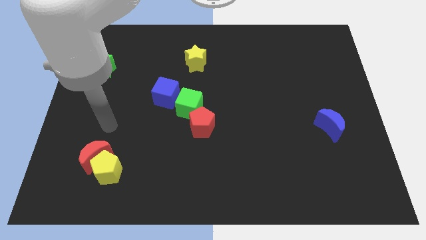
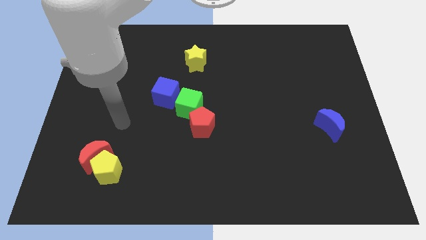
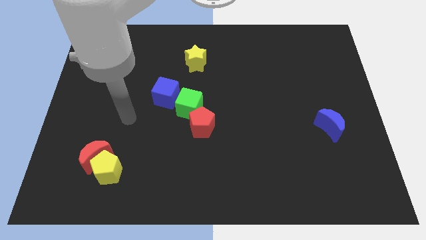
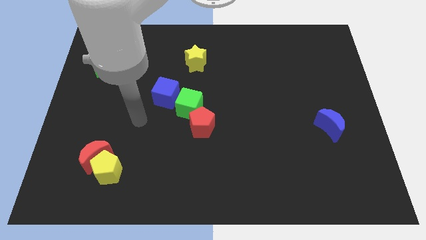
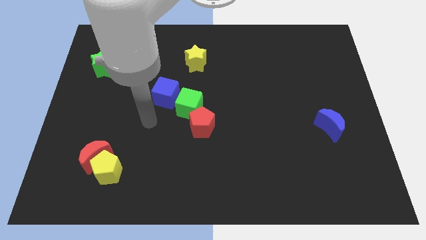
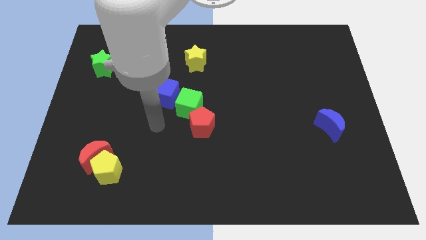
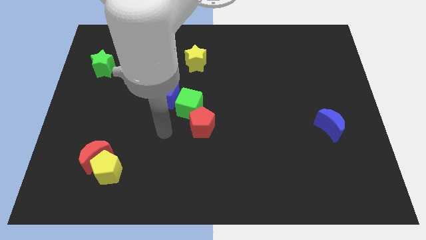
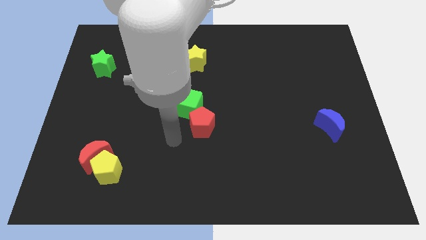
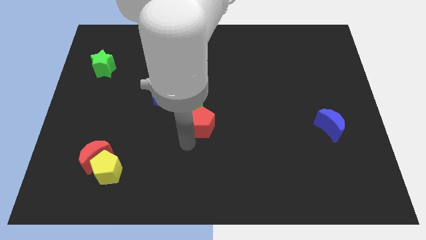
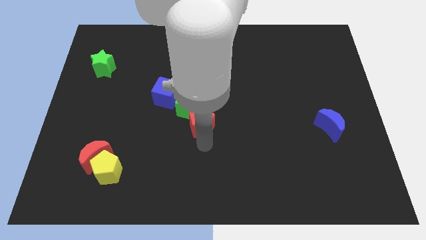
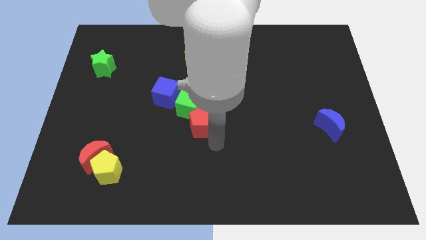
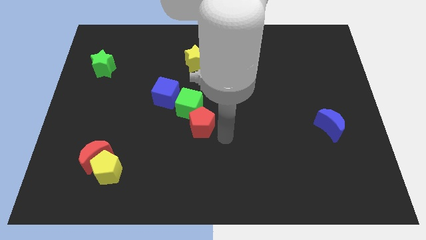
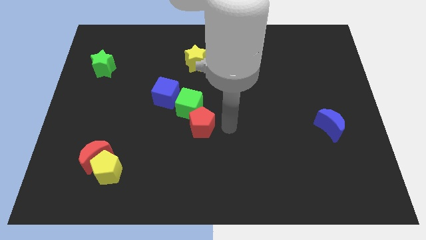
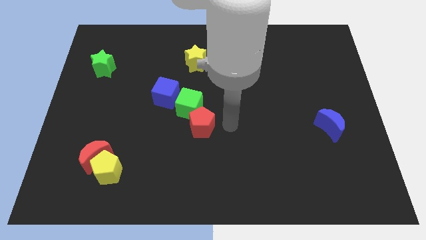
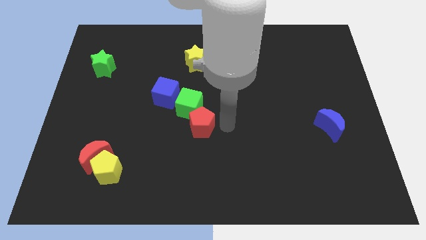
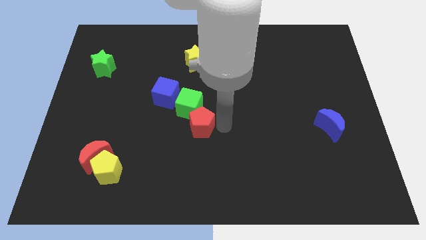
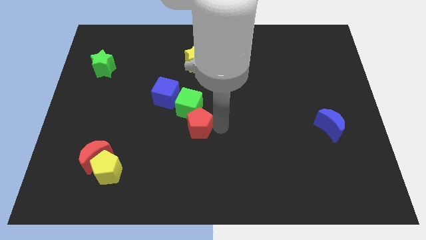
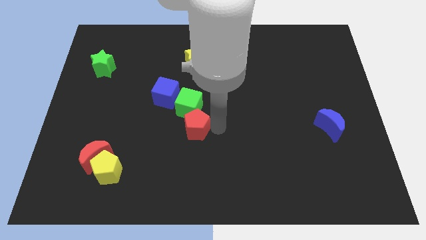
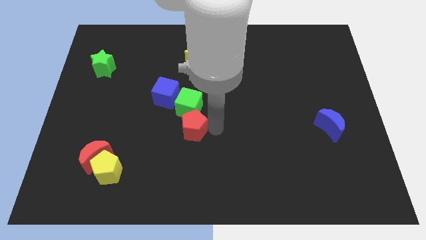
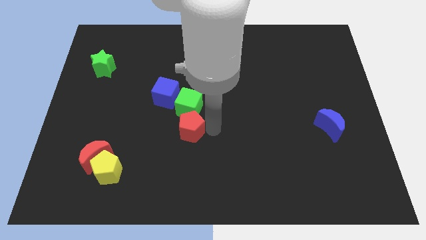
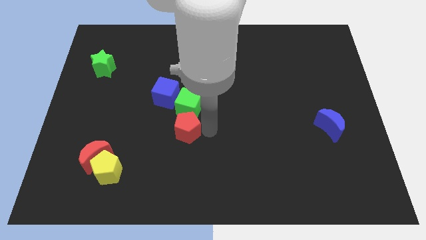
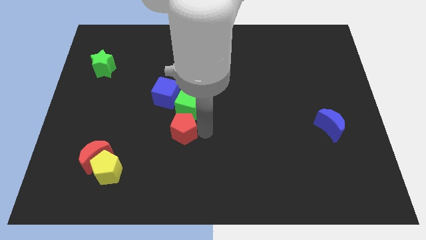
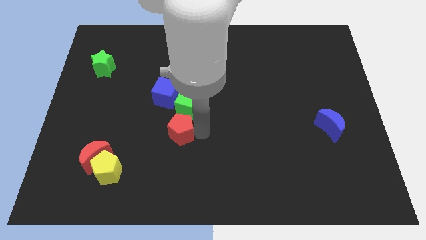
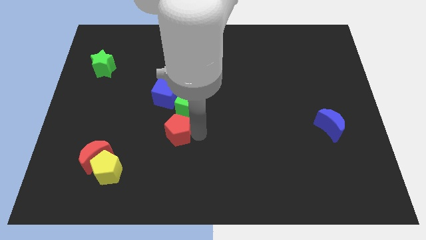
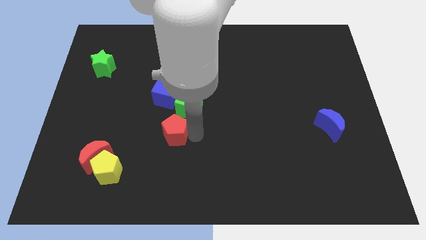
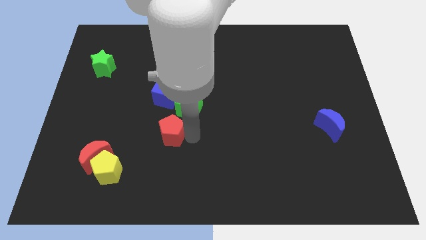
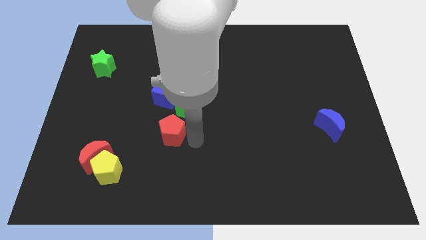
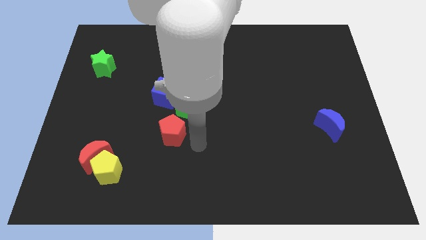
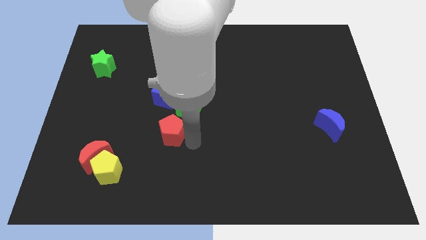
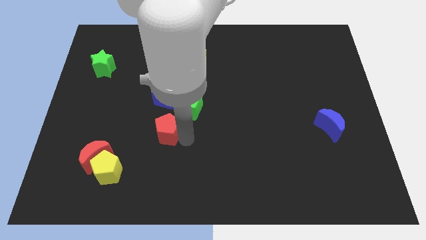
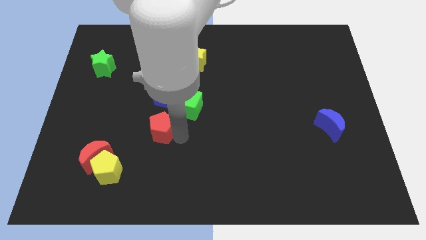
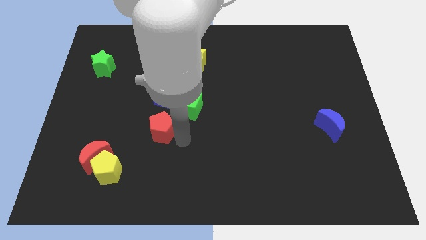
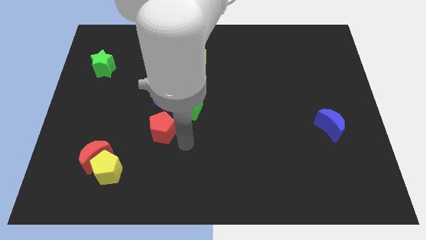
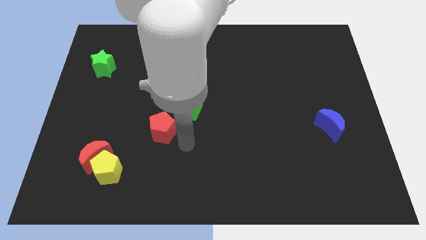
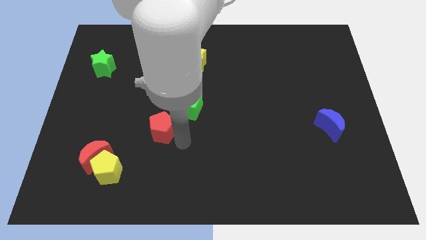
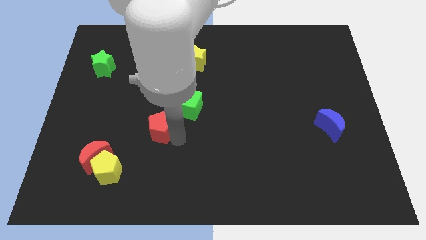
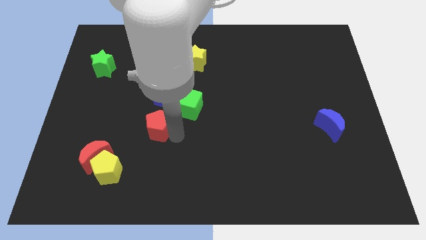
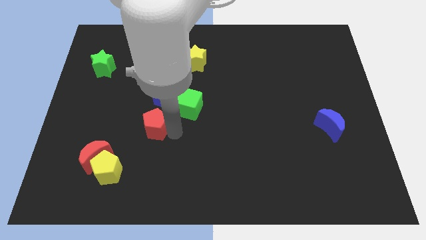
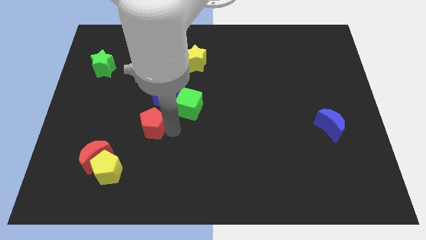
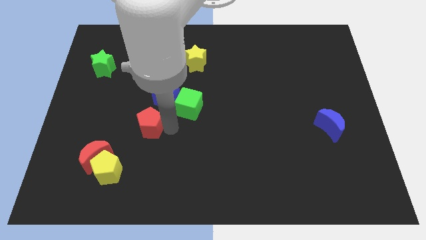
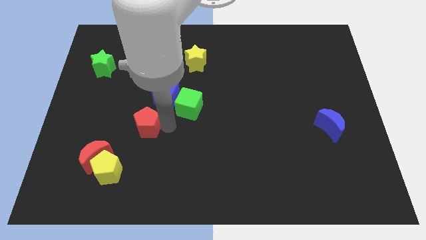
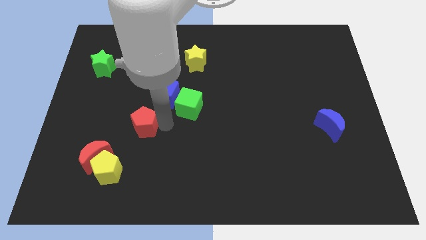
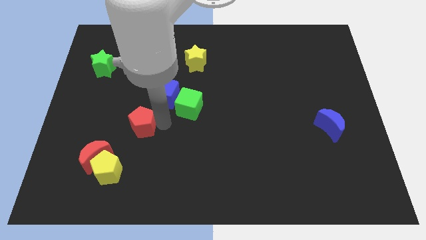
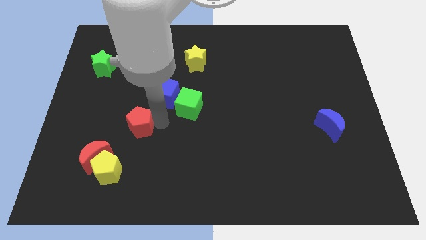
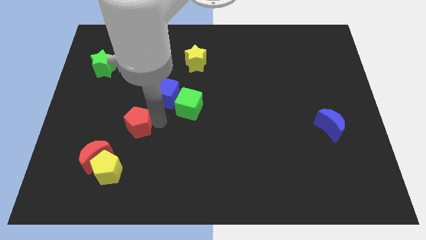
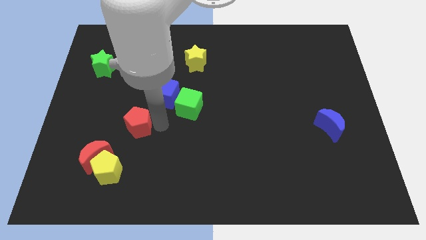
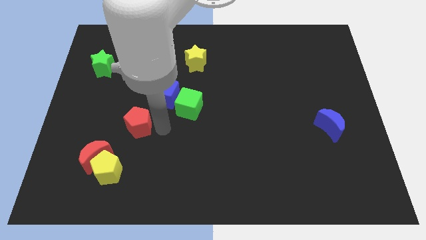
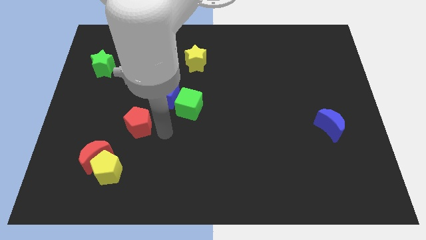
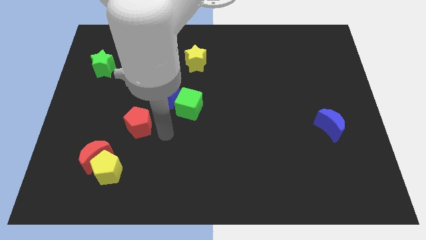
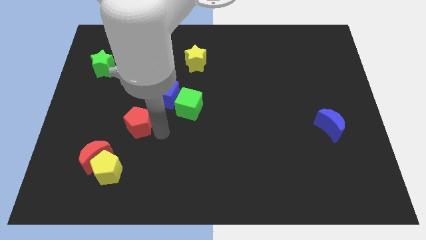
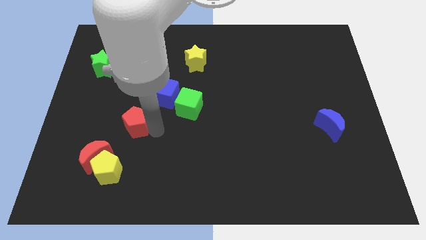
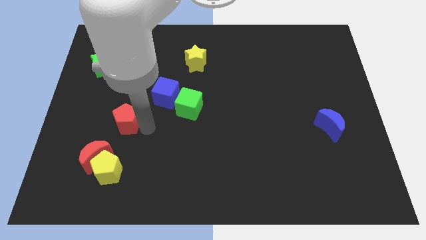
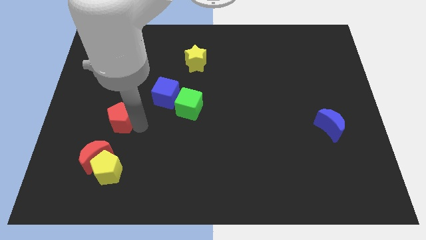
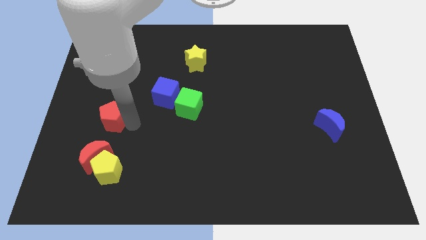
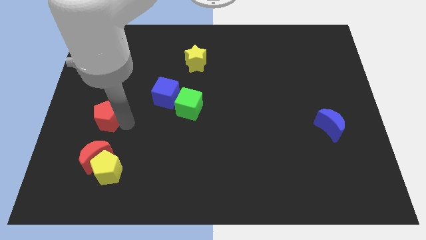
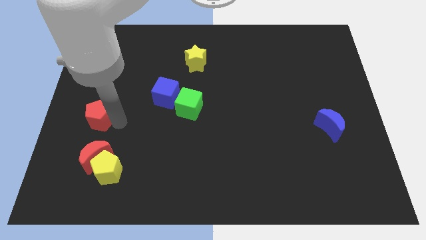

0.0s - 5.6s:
slide the red pentagon to the left side of the board
